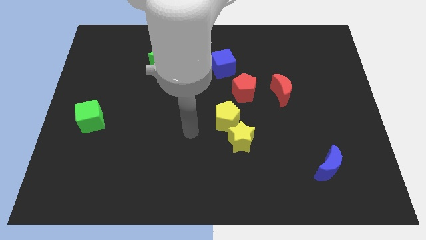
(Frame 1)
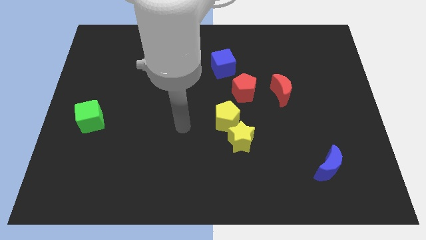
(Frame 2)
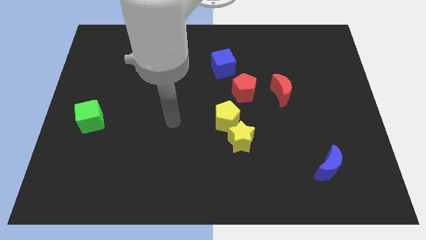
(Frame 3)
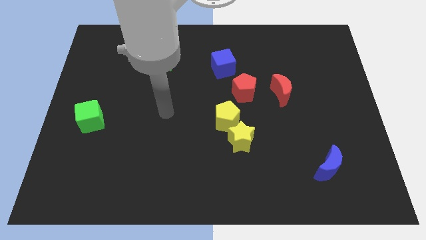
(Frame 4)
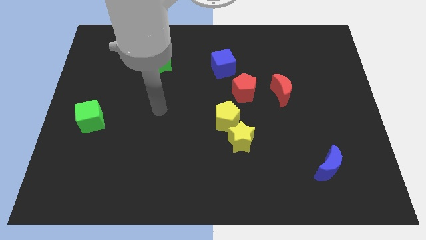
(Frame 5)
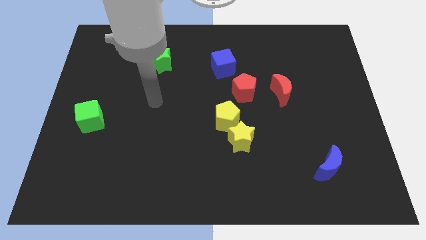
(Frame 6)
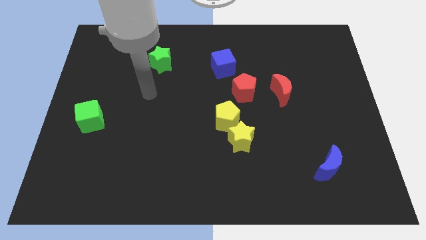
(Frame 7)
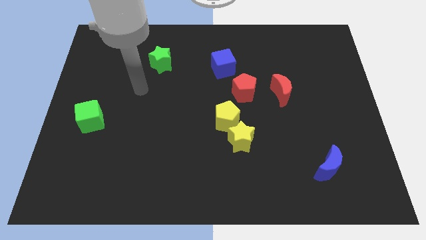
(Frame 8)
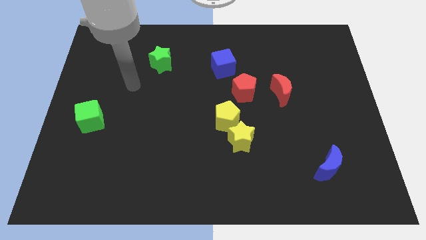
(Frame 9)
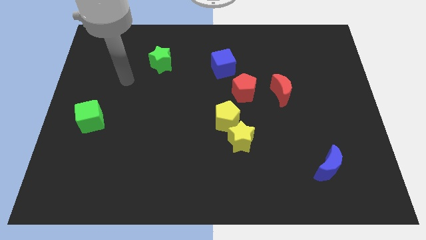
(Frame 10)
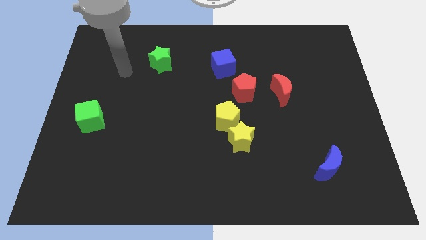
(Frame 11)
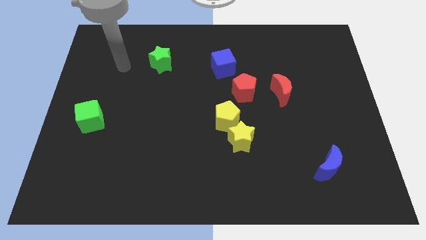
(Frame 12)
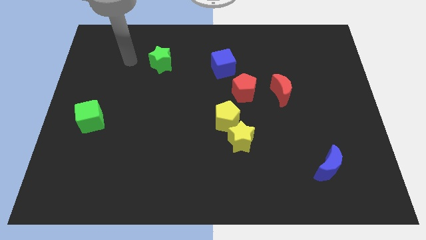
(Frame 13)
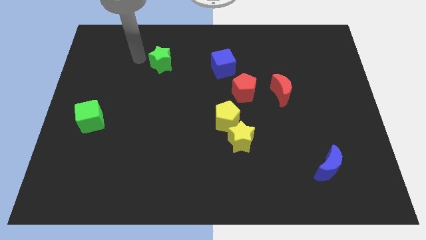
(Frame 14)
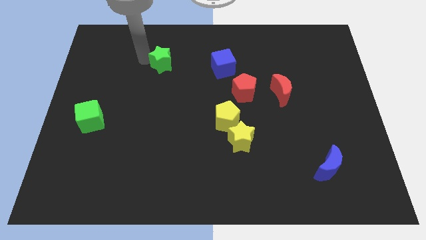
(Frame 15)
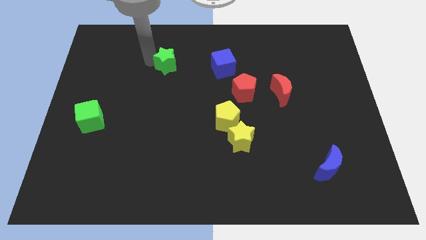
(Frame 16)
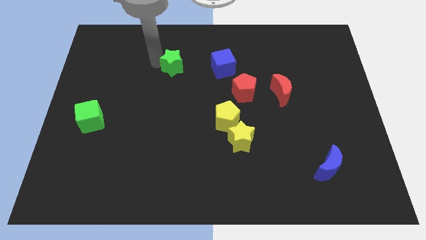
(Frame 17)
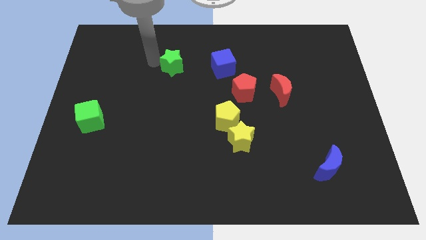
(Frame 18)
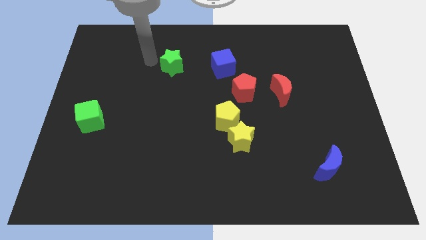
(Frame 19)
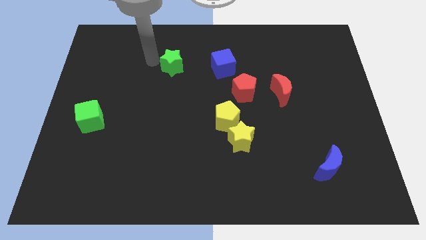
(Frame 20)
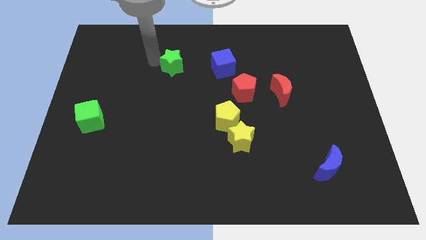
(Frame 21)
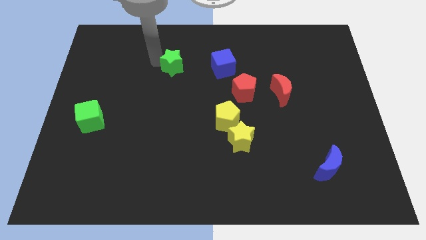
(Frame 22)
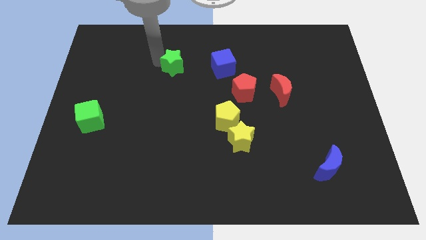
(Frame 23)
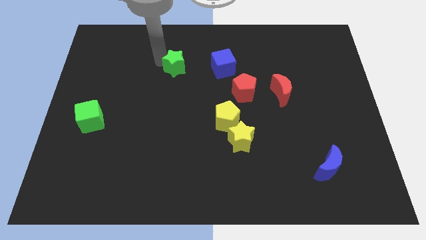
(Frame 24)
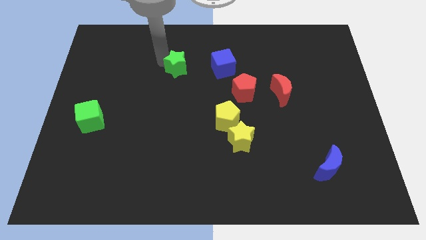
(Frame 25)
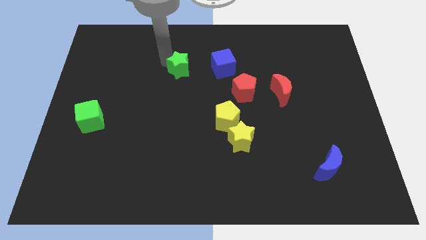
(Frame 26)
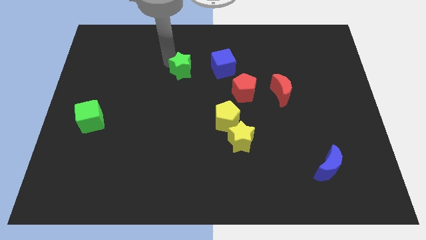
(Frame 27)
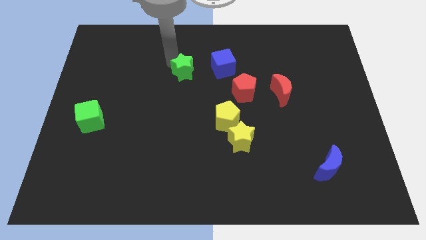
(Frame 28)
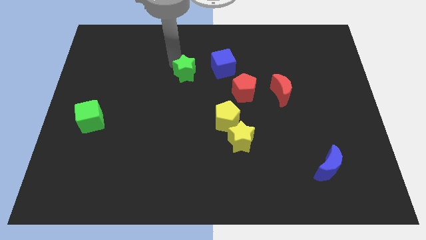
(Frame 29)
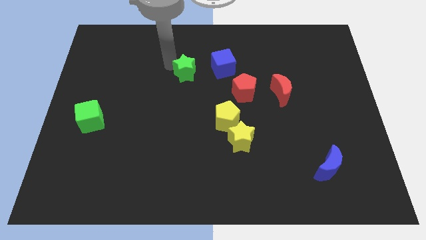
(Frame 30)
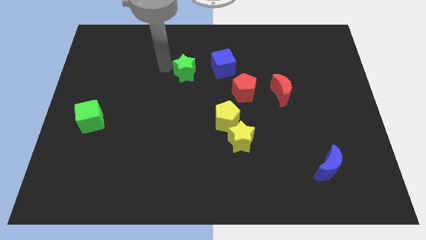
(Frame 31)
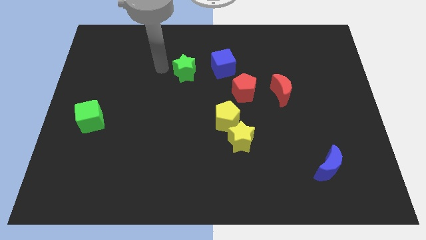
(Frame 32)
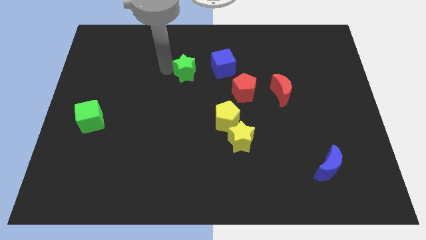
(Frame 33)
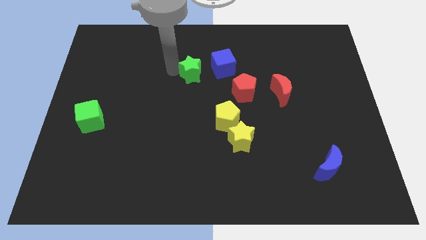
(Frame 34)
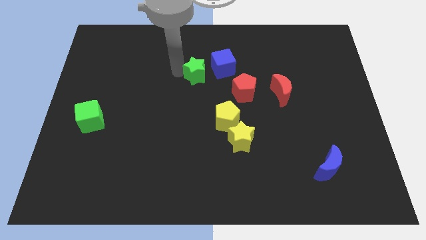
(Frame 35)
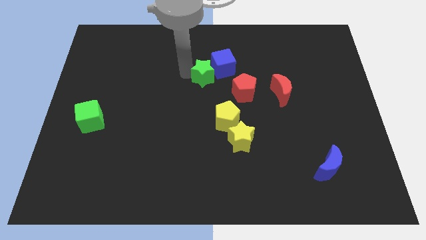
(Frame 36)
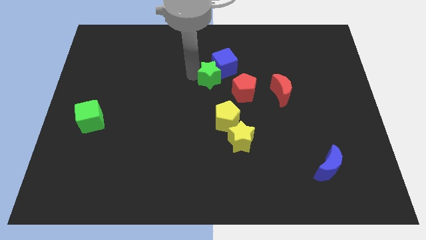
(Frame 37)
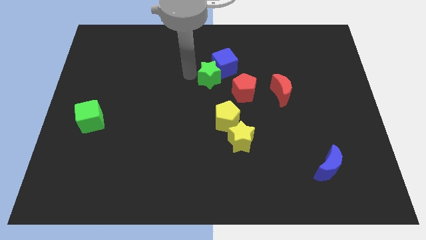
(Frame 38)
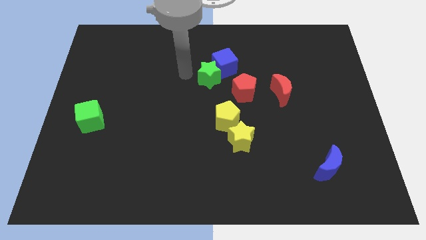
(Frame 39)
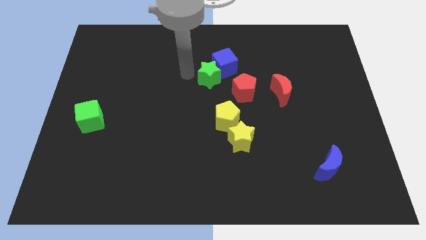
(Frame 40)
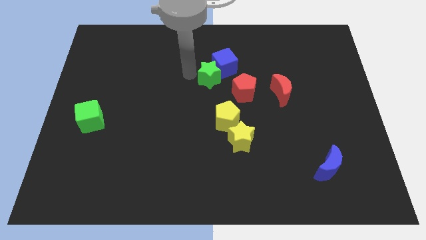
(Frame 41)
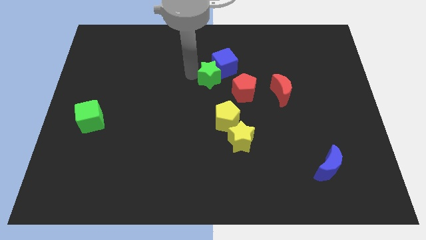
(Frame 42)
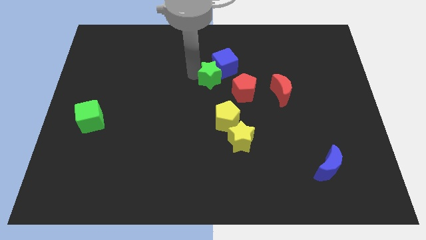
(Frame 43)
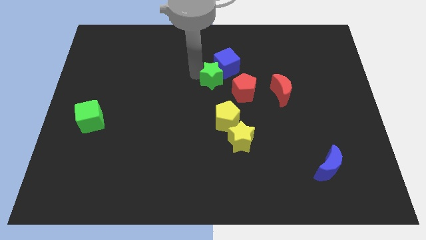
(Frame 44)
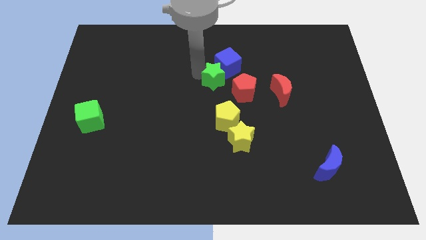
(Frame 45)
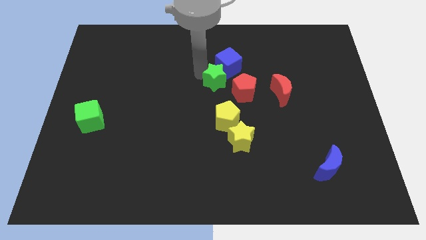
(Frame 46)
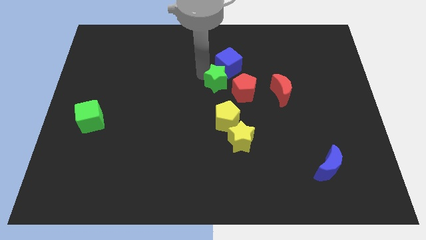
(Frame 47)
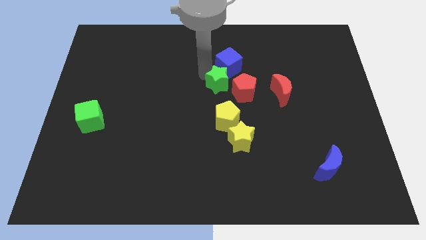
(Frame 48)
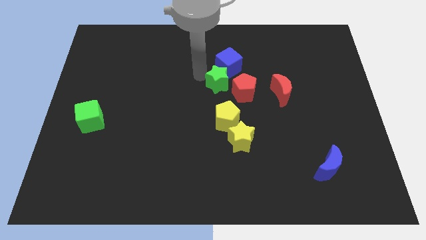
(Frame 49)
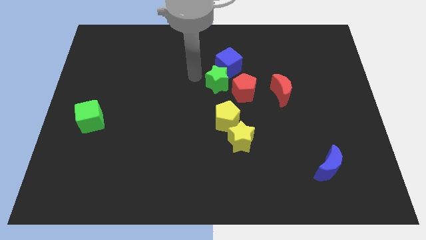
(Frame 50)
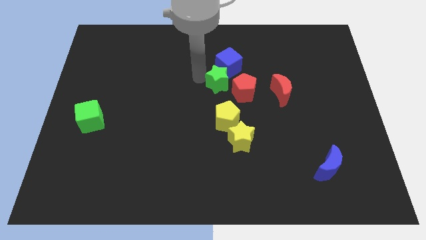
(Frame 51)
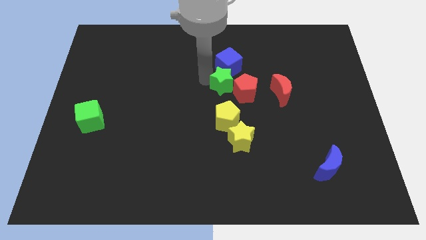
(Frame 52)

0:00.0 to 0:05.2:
put the green star towards the red pentagon

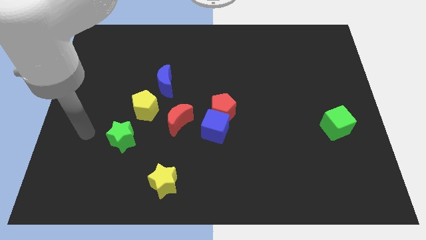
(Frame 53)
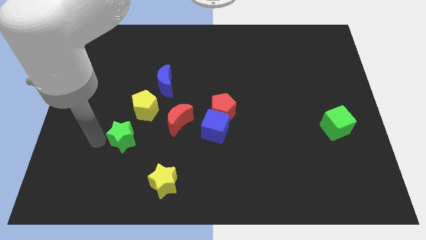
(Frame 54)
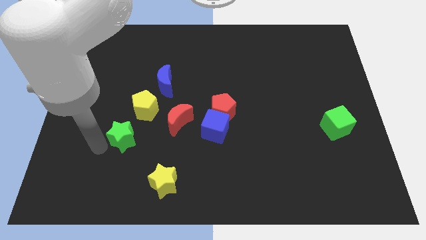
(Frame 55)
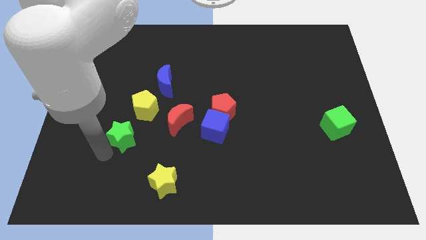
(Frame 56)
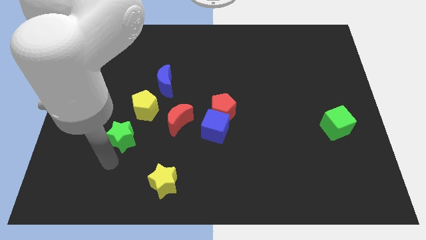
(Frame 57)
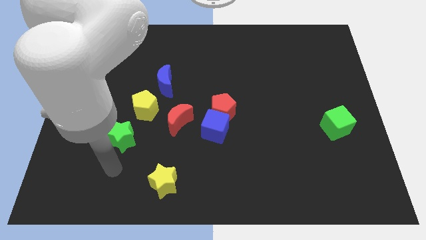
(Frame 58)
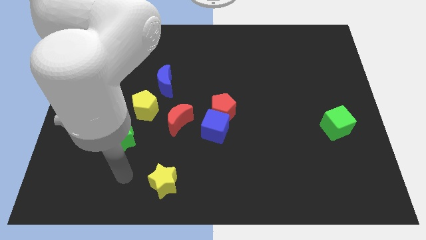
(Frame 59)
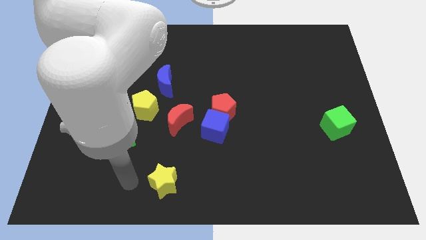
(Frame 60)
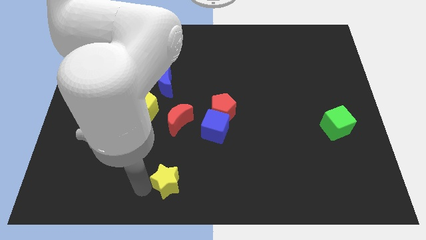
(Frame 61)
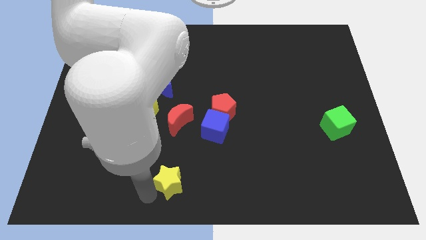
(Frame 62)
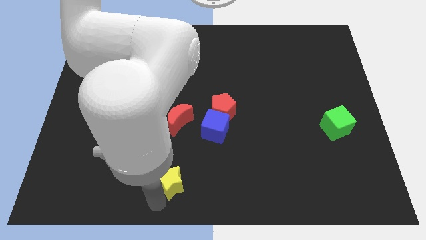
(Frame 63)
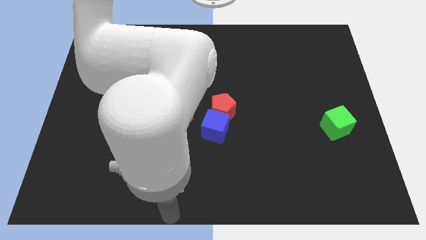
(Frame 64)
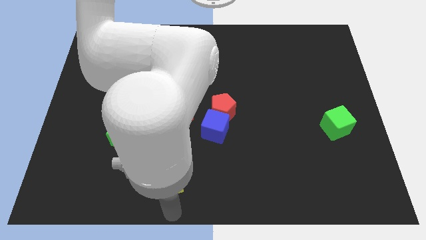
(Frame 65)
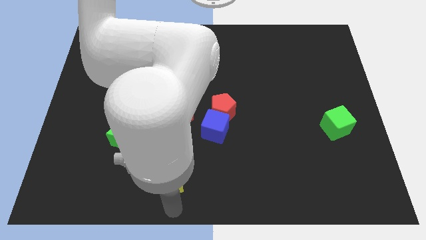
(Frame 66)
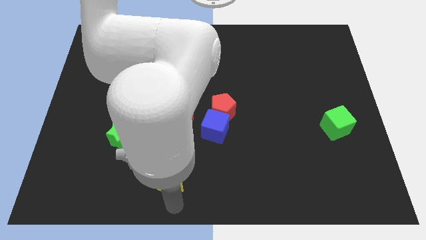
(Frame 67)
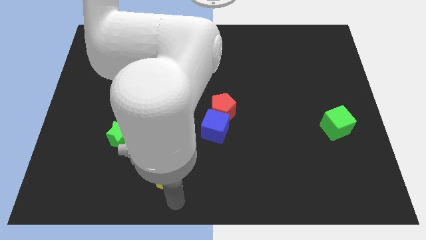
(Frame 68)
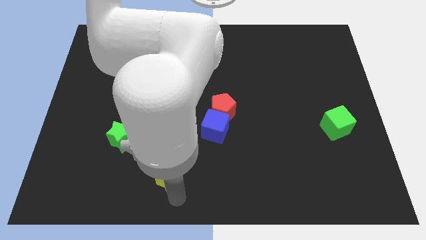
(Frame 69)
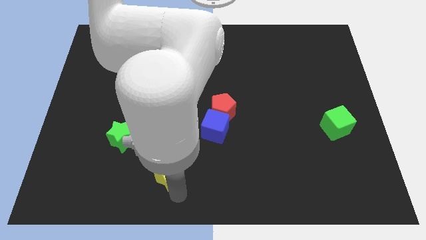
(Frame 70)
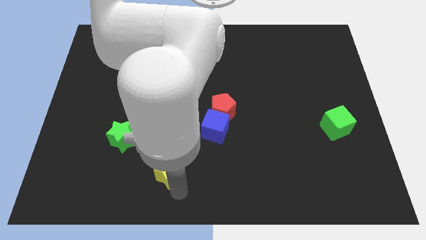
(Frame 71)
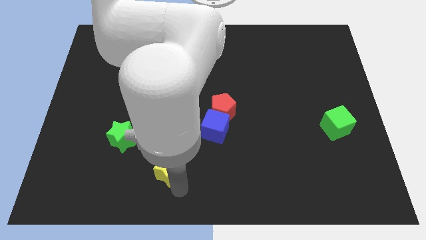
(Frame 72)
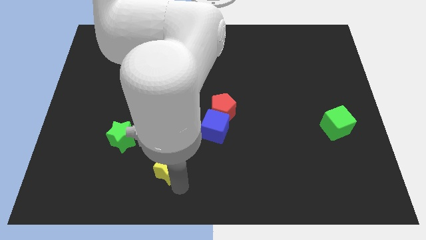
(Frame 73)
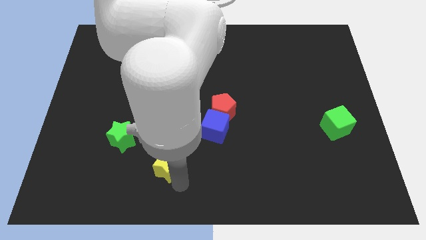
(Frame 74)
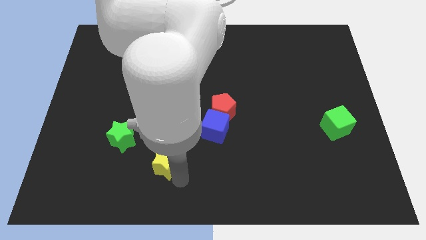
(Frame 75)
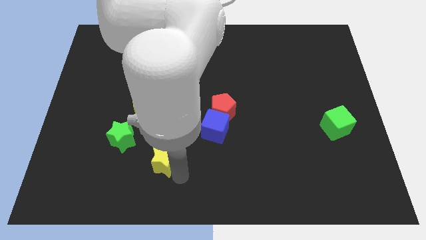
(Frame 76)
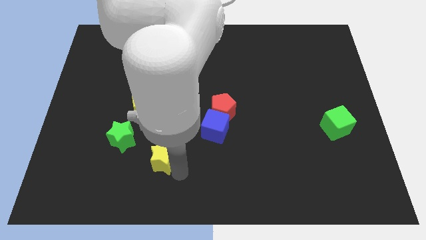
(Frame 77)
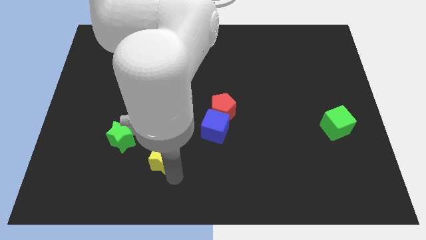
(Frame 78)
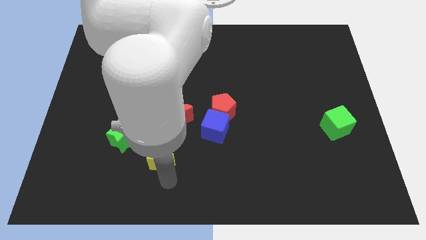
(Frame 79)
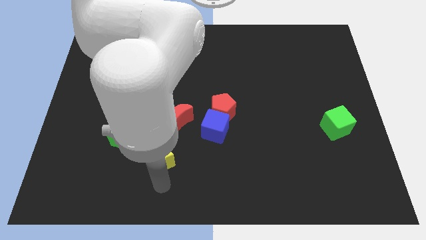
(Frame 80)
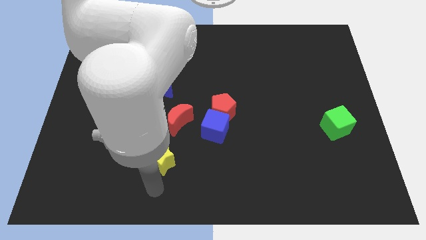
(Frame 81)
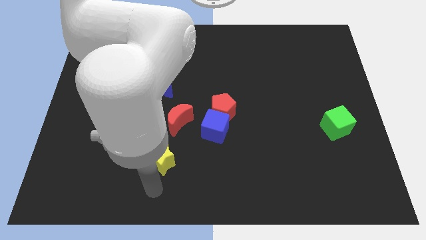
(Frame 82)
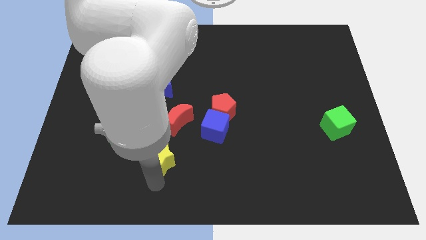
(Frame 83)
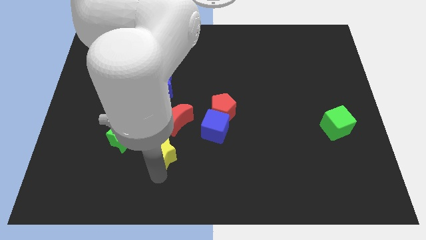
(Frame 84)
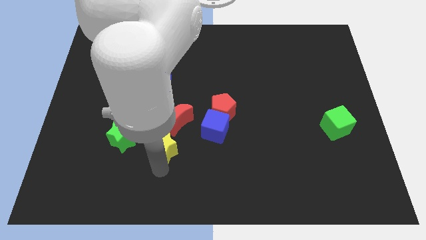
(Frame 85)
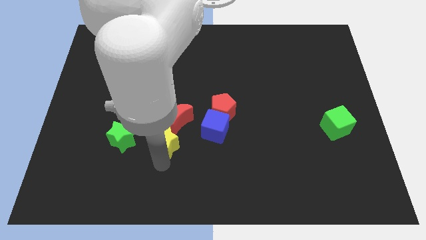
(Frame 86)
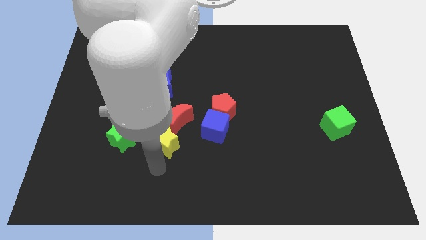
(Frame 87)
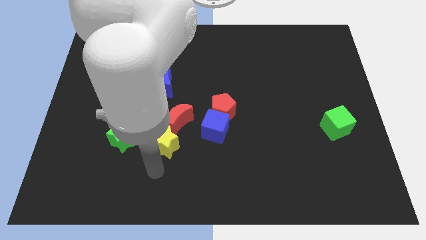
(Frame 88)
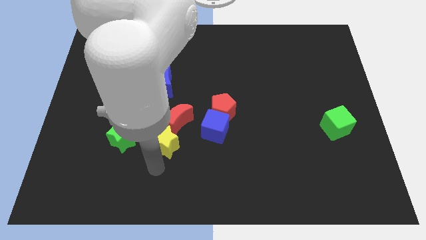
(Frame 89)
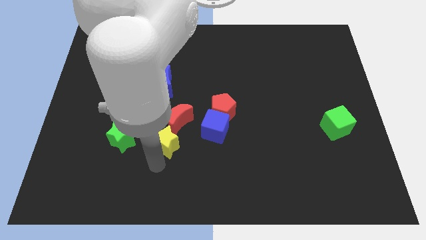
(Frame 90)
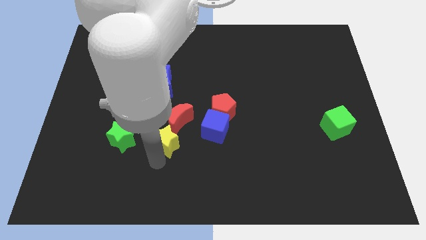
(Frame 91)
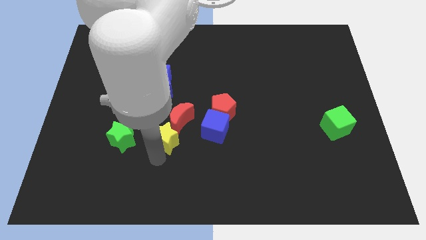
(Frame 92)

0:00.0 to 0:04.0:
slide the yellow star next to the red moon
